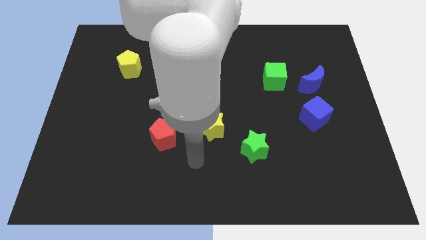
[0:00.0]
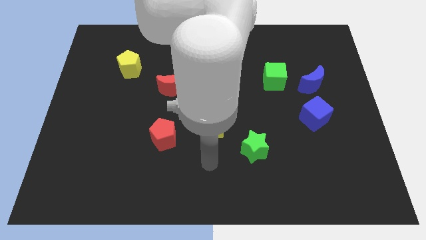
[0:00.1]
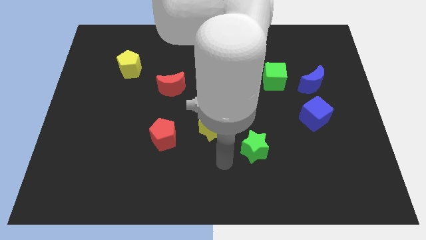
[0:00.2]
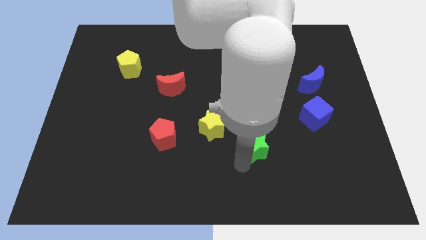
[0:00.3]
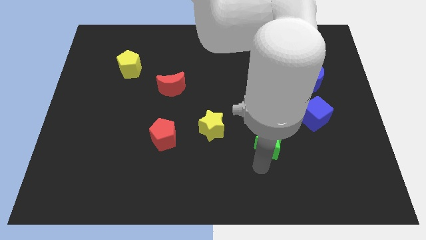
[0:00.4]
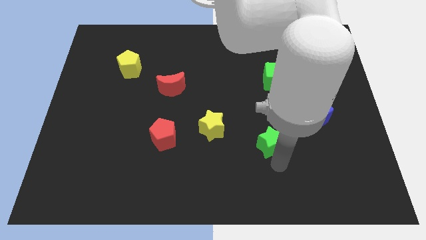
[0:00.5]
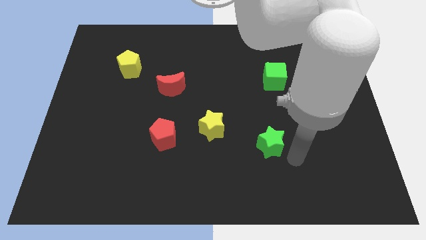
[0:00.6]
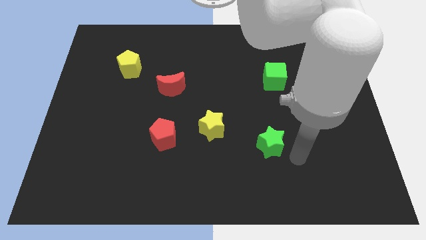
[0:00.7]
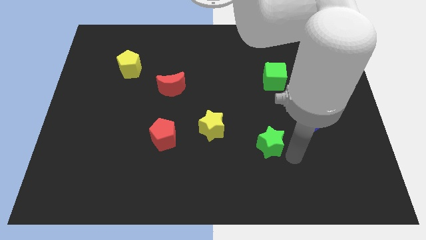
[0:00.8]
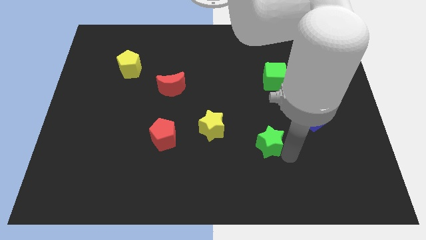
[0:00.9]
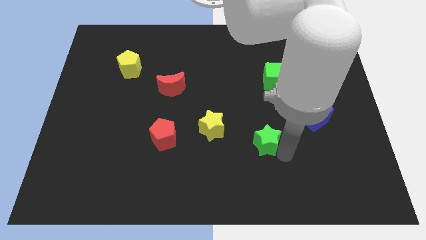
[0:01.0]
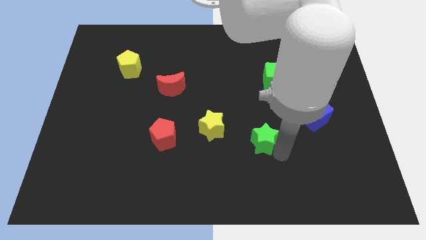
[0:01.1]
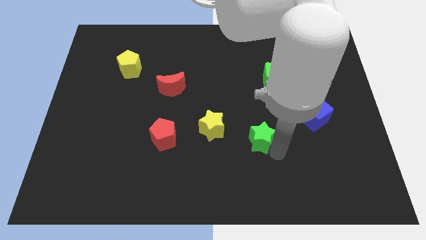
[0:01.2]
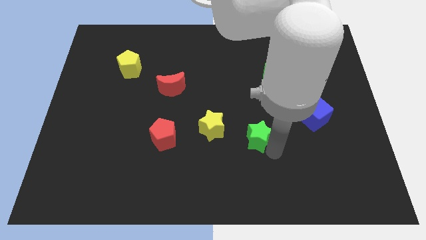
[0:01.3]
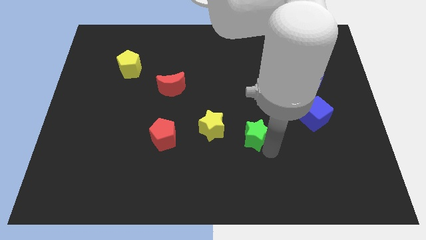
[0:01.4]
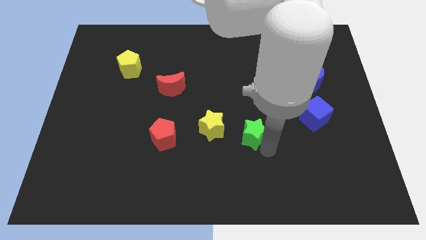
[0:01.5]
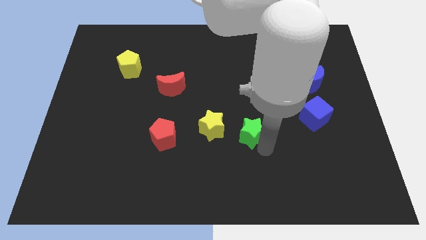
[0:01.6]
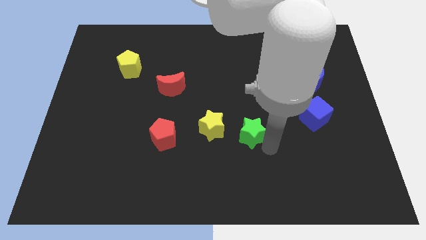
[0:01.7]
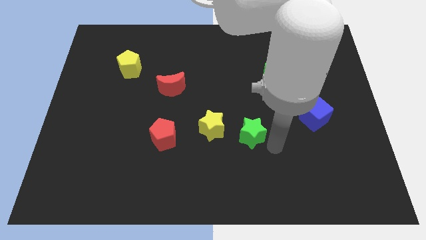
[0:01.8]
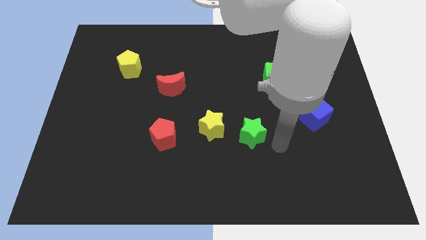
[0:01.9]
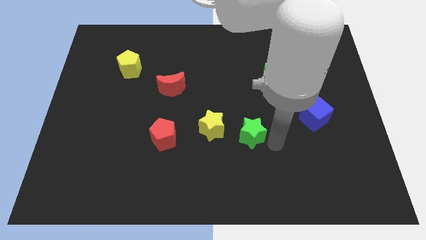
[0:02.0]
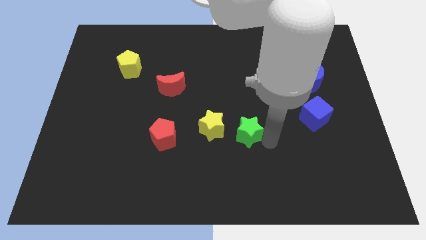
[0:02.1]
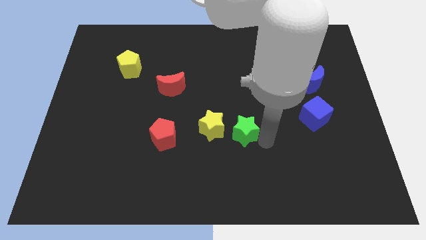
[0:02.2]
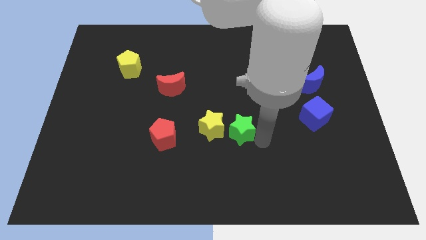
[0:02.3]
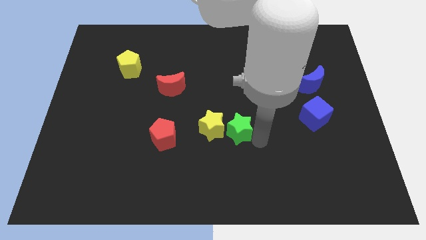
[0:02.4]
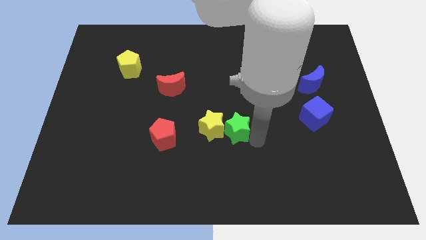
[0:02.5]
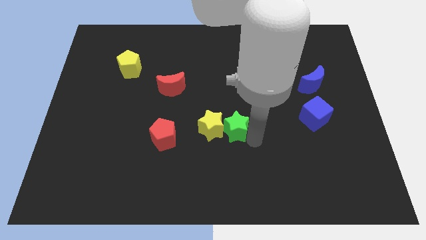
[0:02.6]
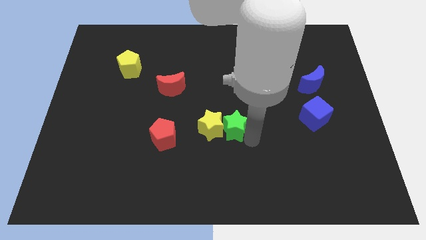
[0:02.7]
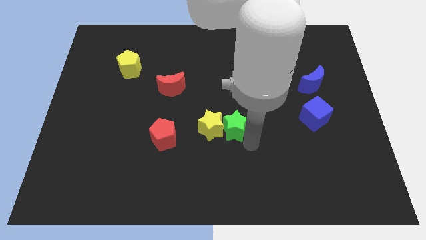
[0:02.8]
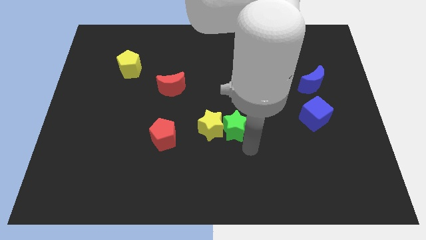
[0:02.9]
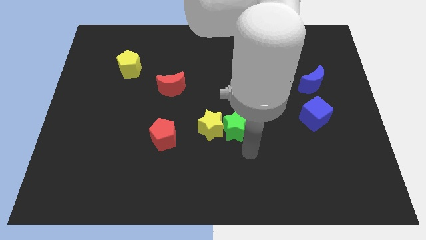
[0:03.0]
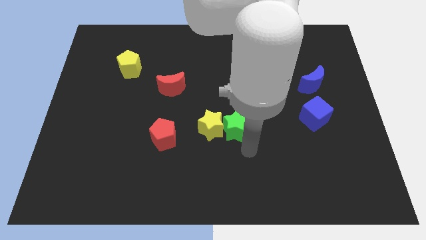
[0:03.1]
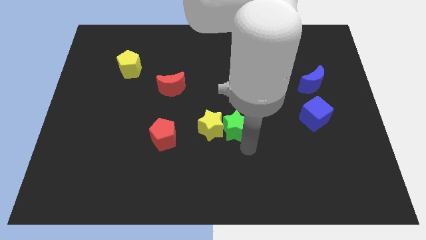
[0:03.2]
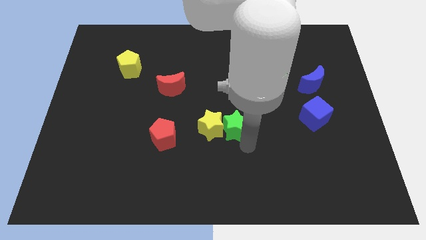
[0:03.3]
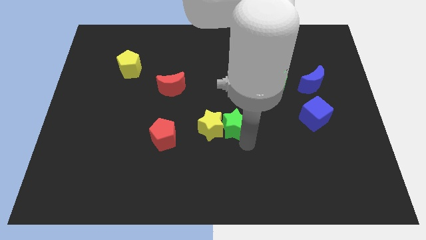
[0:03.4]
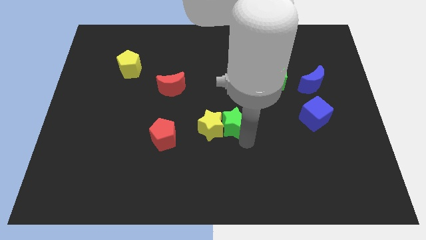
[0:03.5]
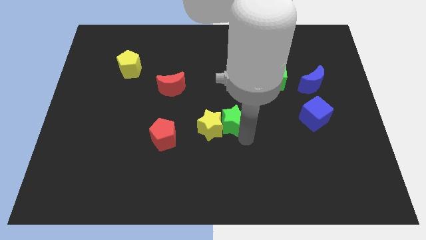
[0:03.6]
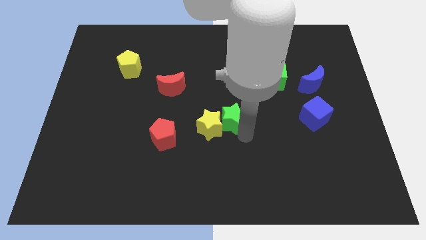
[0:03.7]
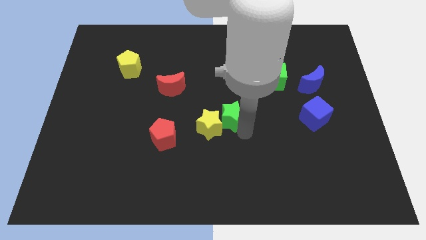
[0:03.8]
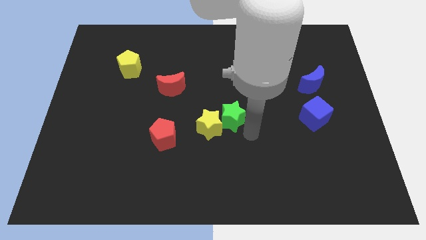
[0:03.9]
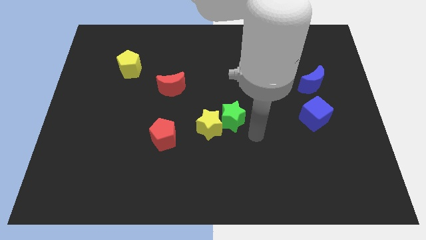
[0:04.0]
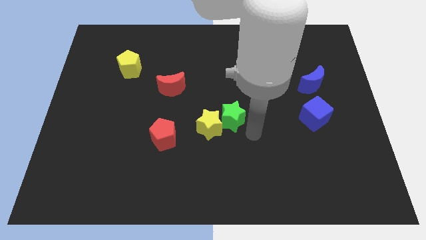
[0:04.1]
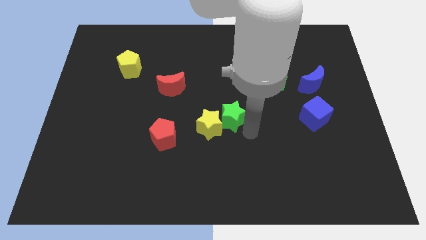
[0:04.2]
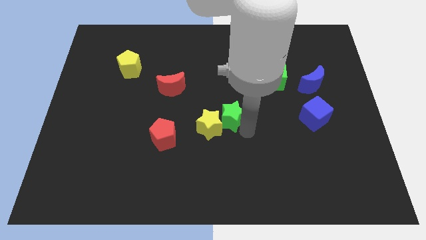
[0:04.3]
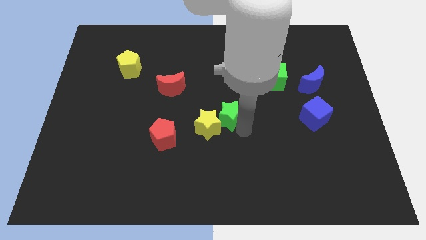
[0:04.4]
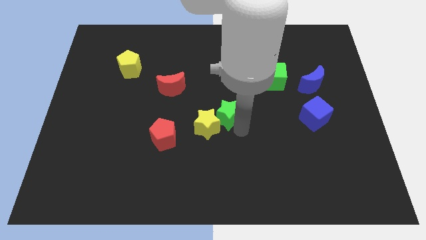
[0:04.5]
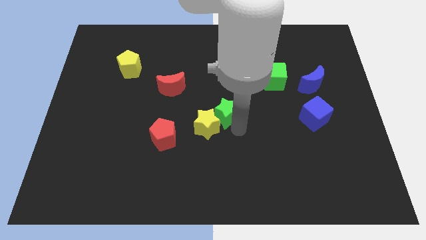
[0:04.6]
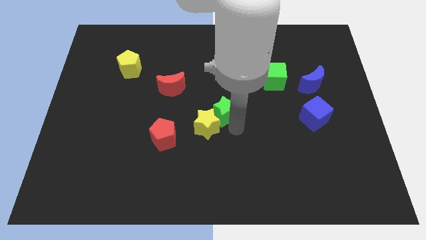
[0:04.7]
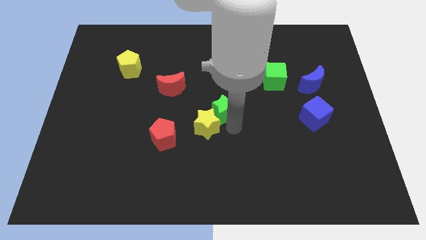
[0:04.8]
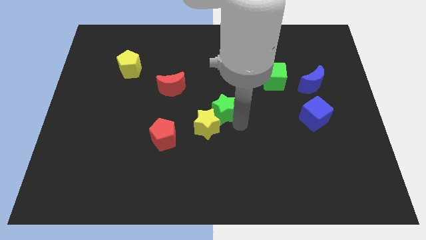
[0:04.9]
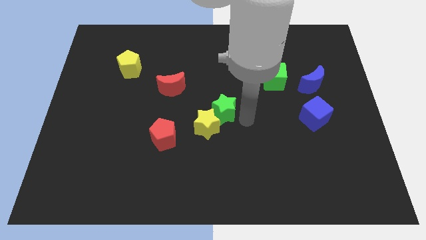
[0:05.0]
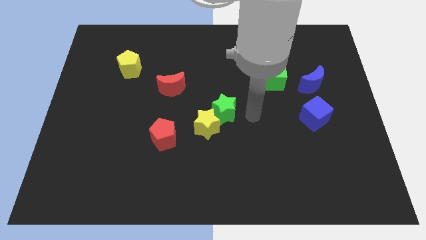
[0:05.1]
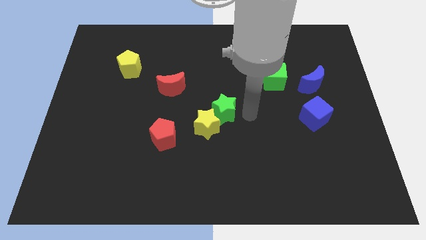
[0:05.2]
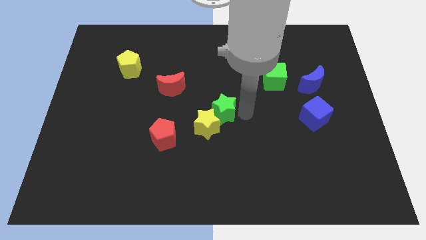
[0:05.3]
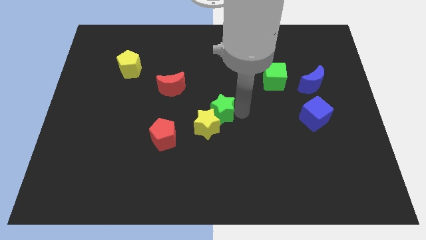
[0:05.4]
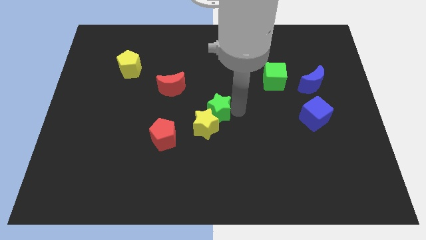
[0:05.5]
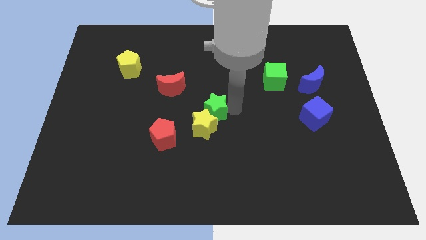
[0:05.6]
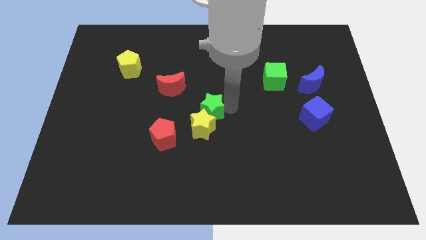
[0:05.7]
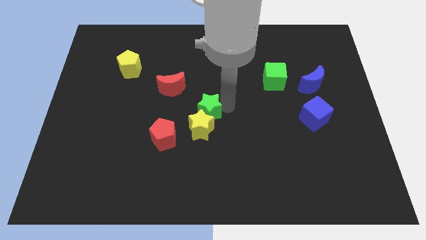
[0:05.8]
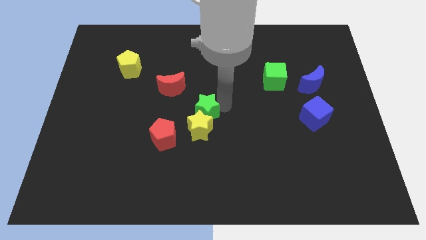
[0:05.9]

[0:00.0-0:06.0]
move the green star to the top left of the yellow star

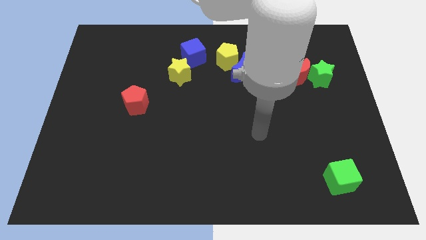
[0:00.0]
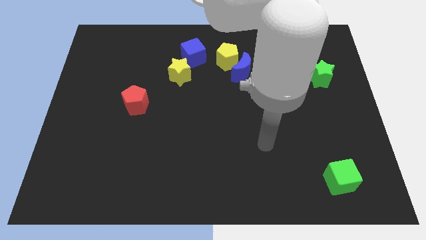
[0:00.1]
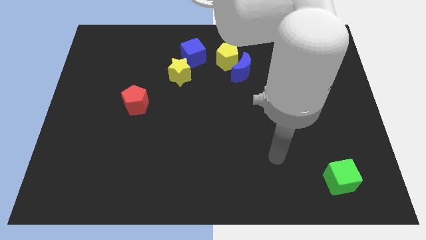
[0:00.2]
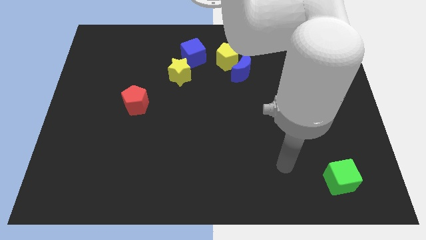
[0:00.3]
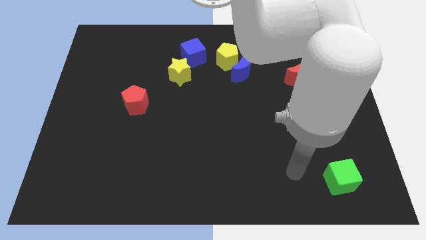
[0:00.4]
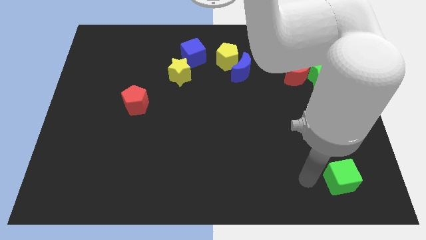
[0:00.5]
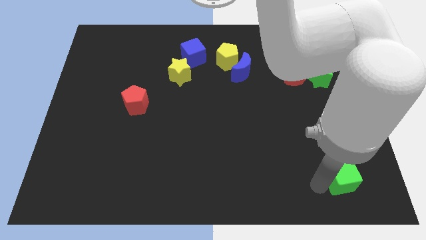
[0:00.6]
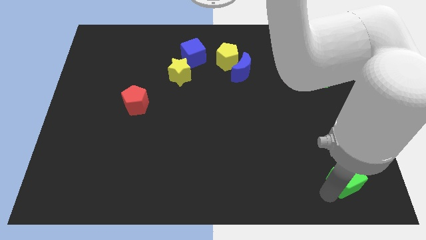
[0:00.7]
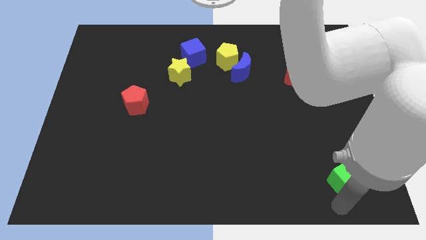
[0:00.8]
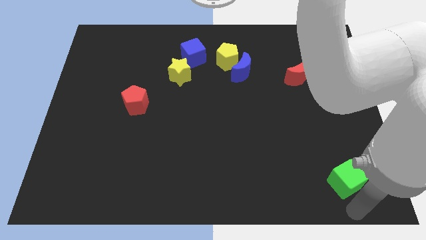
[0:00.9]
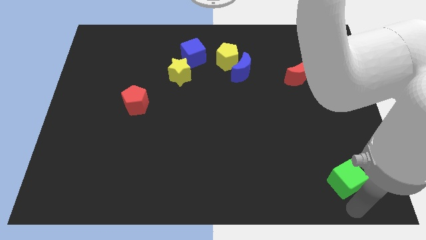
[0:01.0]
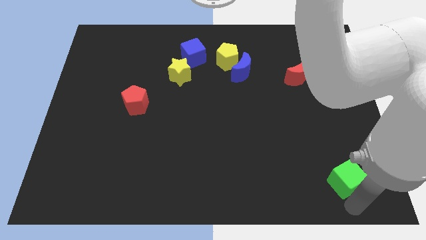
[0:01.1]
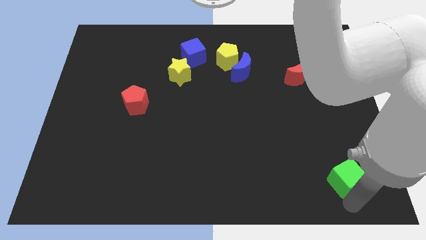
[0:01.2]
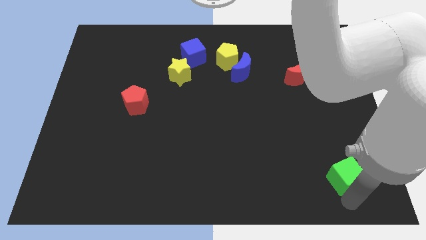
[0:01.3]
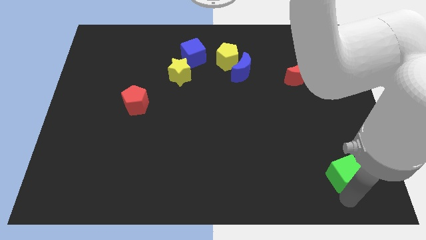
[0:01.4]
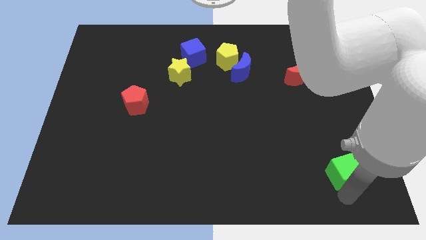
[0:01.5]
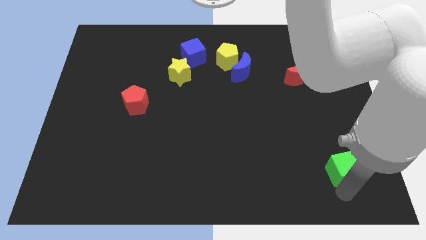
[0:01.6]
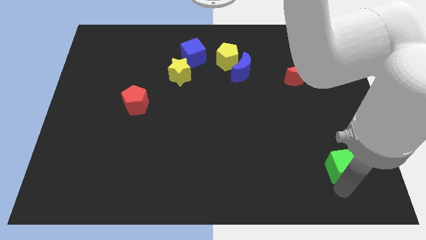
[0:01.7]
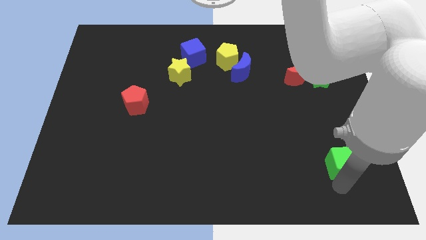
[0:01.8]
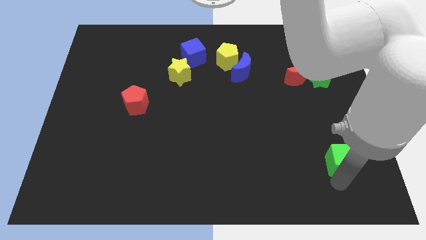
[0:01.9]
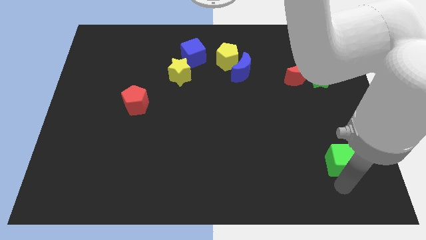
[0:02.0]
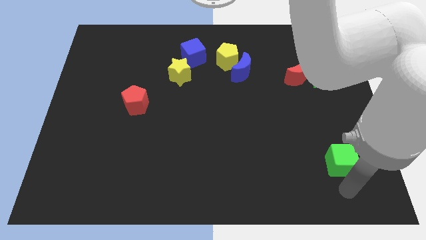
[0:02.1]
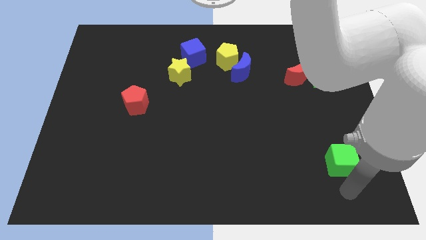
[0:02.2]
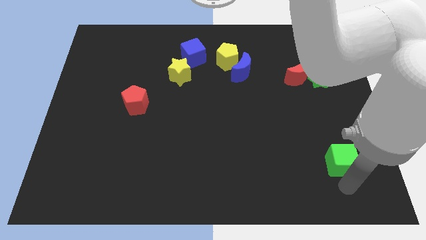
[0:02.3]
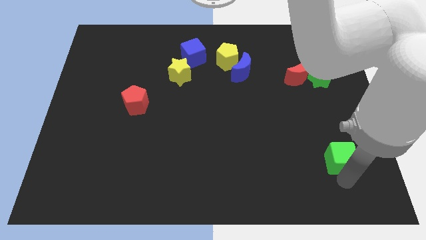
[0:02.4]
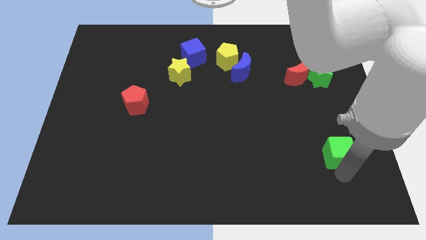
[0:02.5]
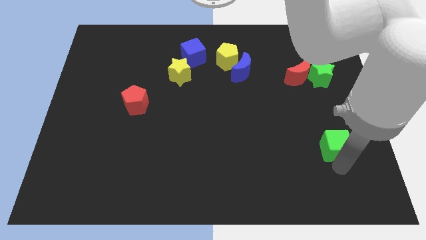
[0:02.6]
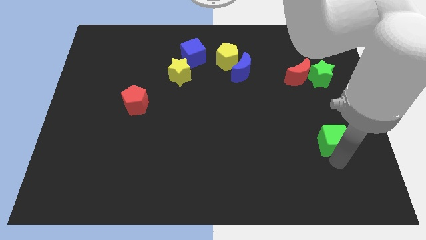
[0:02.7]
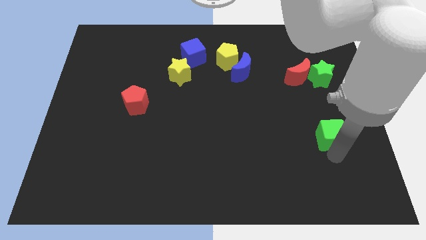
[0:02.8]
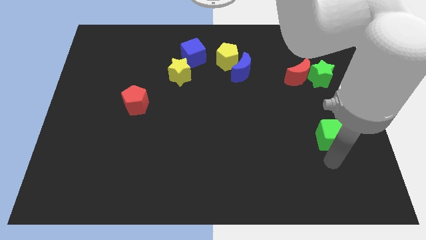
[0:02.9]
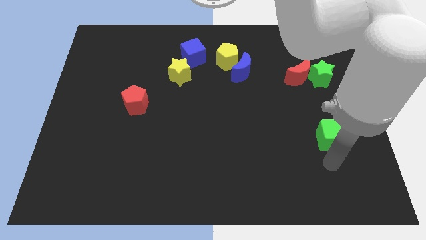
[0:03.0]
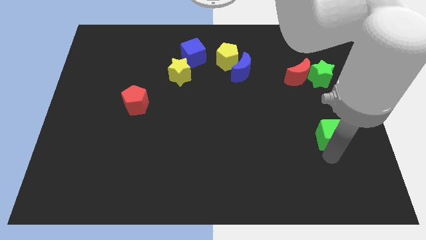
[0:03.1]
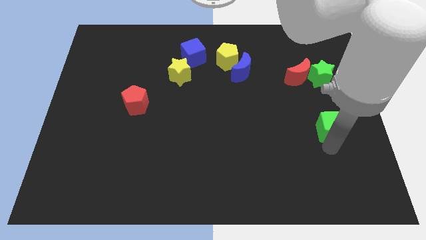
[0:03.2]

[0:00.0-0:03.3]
put the green cube to the bottom of the green star
